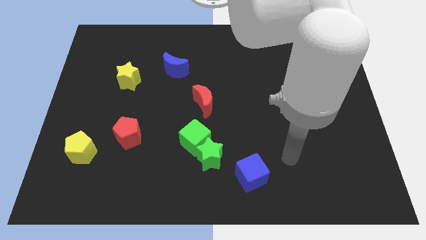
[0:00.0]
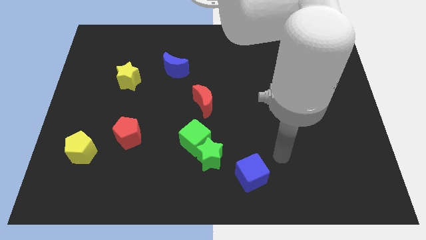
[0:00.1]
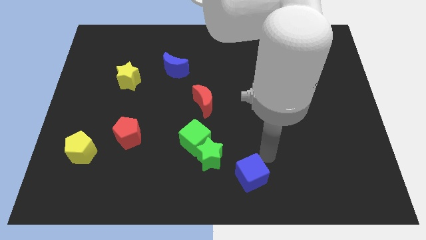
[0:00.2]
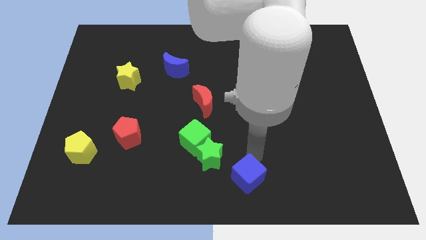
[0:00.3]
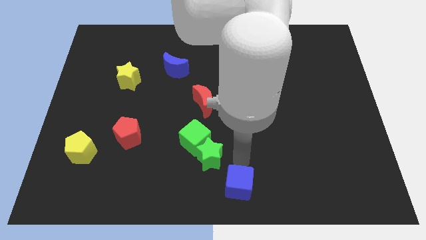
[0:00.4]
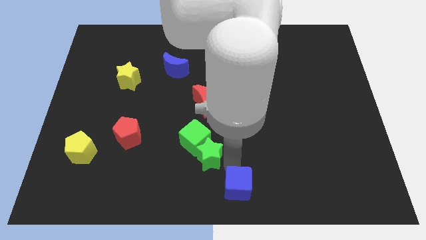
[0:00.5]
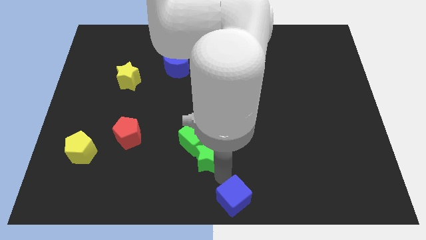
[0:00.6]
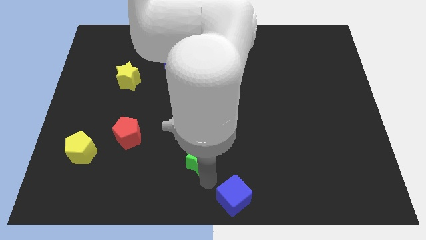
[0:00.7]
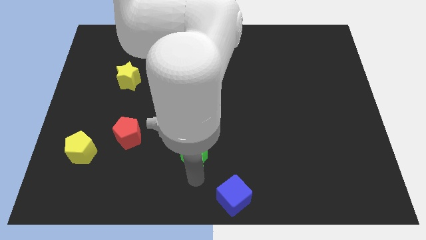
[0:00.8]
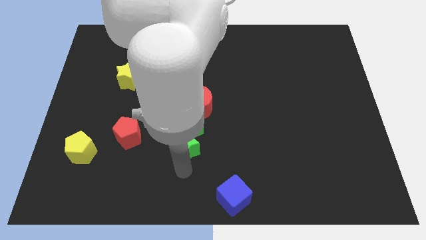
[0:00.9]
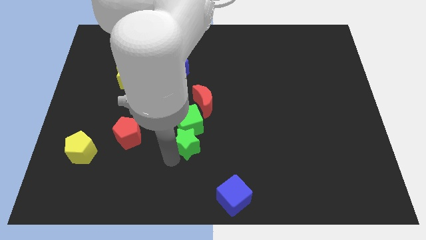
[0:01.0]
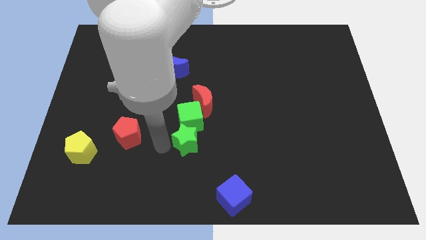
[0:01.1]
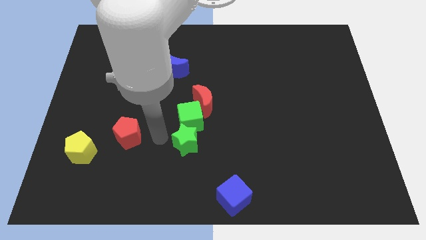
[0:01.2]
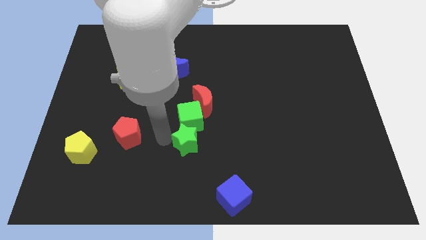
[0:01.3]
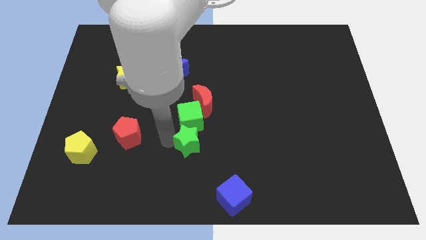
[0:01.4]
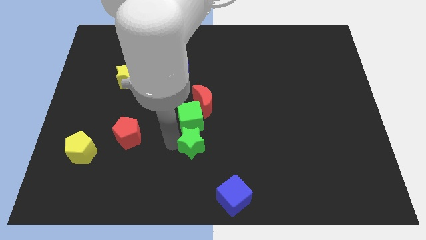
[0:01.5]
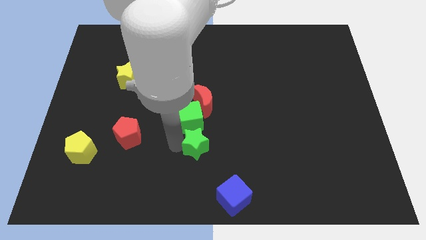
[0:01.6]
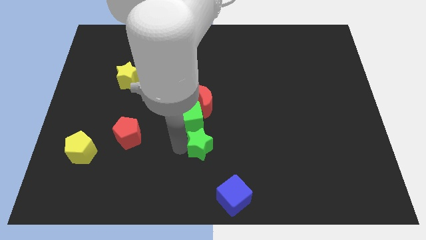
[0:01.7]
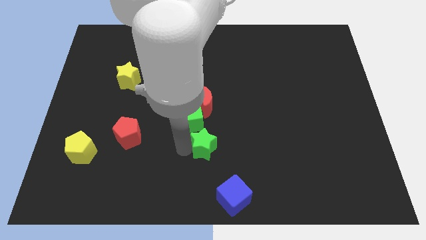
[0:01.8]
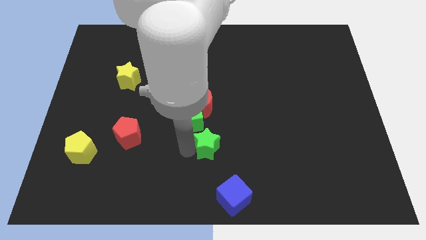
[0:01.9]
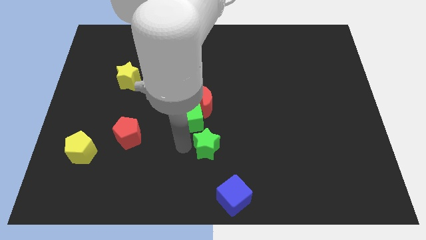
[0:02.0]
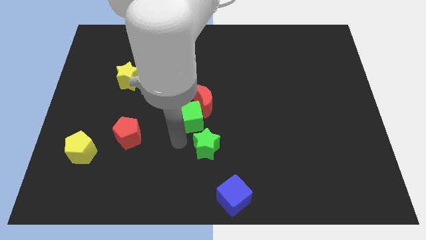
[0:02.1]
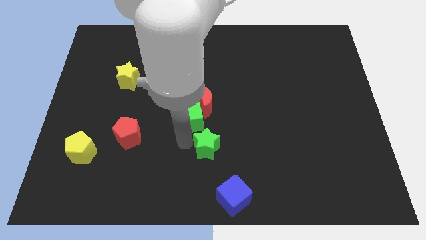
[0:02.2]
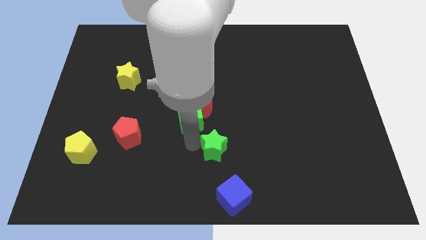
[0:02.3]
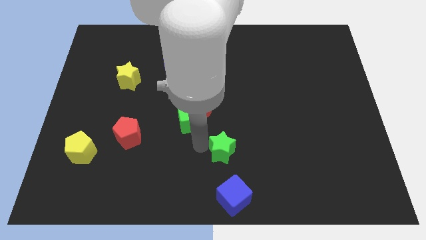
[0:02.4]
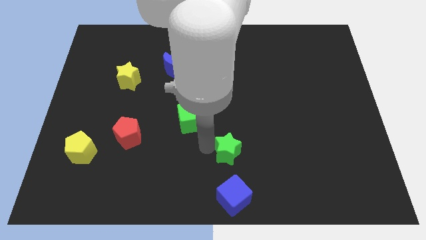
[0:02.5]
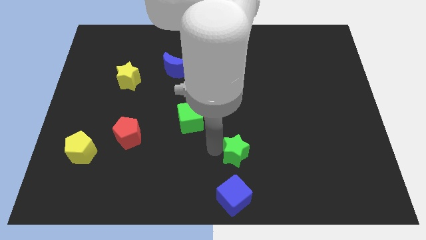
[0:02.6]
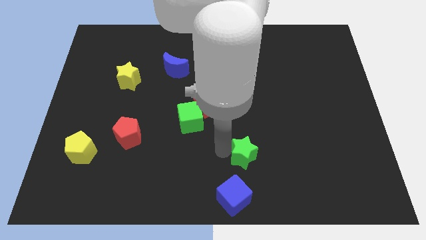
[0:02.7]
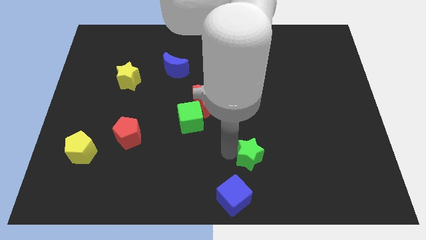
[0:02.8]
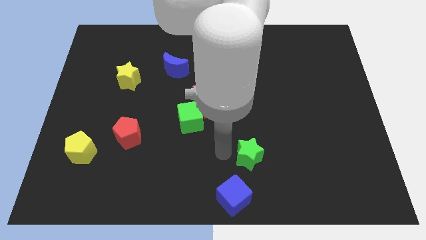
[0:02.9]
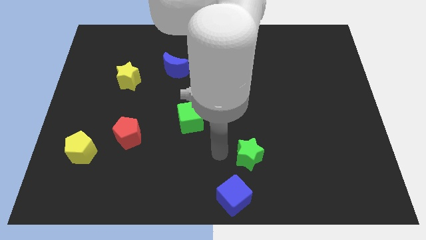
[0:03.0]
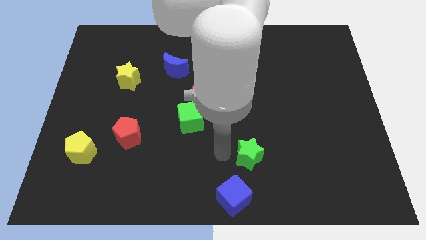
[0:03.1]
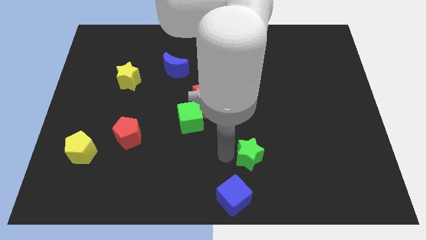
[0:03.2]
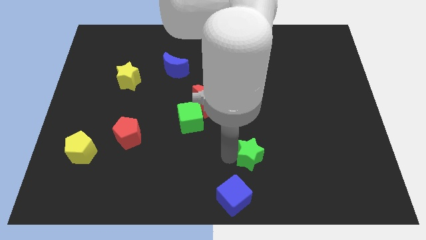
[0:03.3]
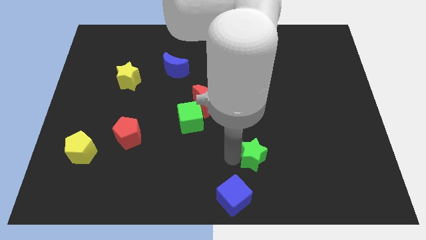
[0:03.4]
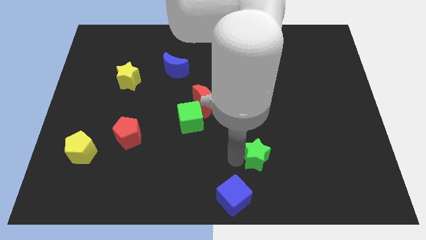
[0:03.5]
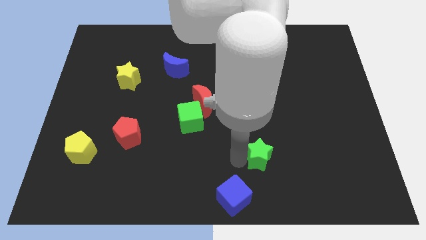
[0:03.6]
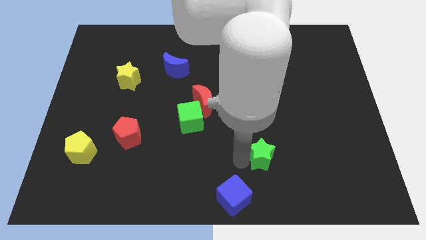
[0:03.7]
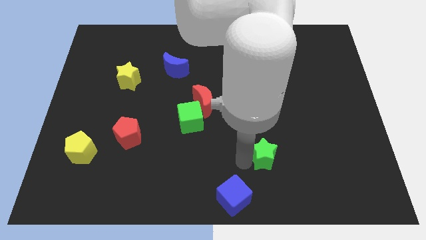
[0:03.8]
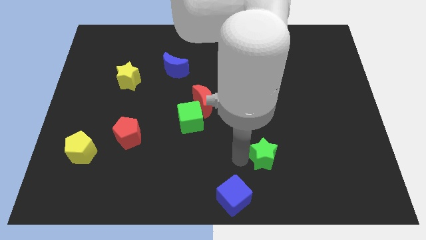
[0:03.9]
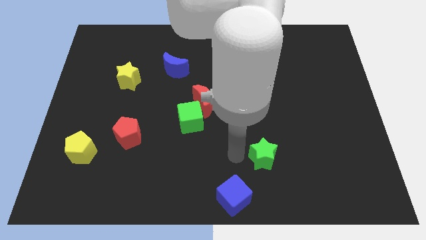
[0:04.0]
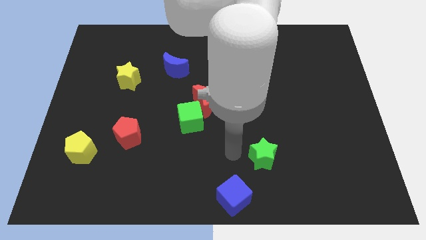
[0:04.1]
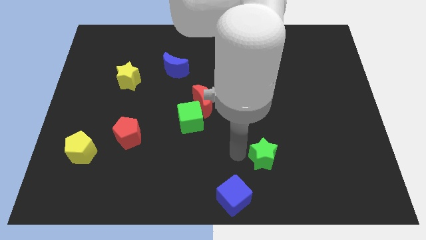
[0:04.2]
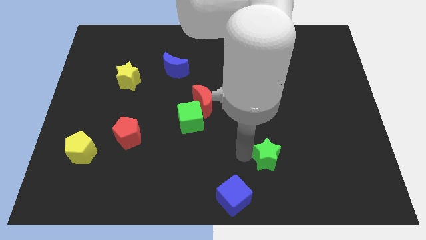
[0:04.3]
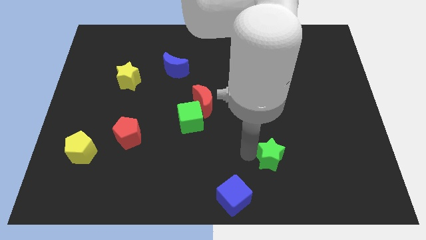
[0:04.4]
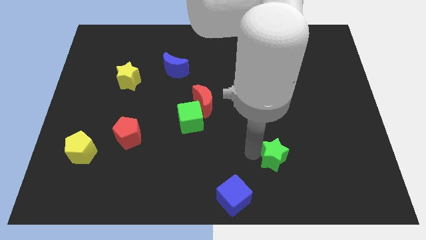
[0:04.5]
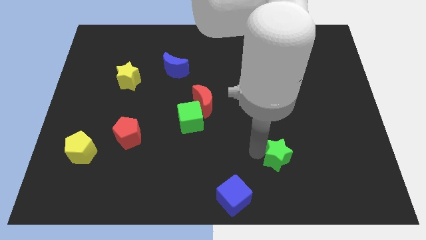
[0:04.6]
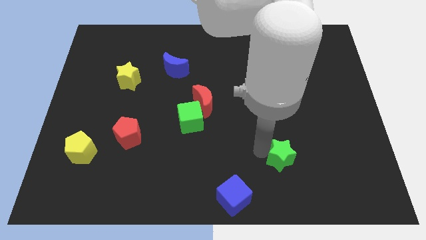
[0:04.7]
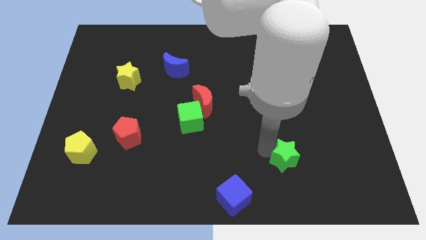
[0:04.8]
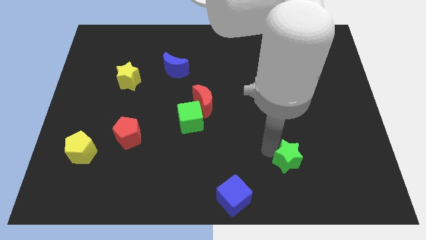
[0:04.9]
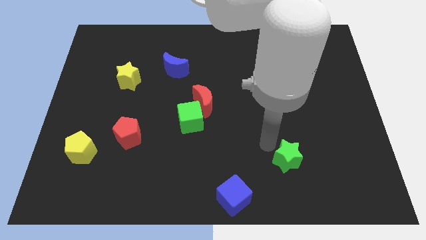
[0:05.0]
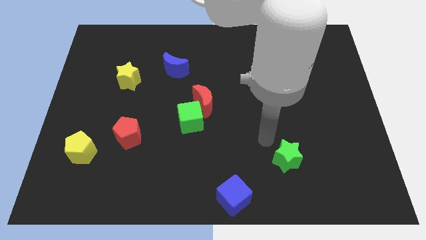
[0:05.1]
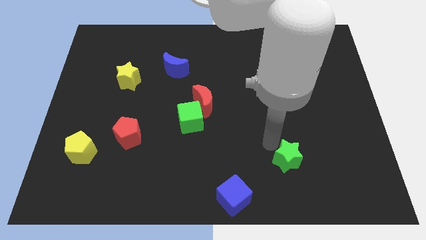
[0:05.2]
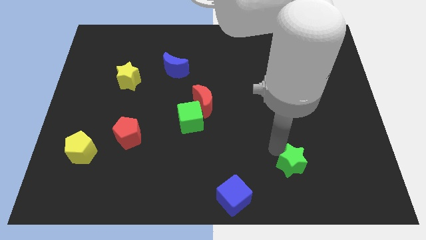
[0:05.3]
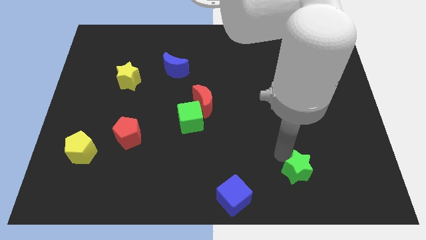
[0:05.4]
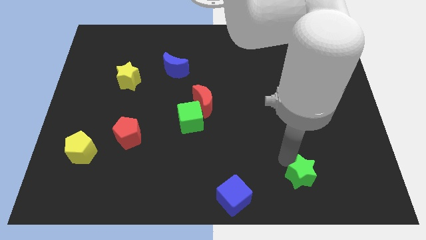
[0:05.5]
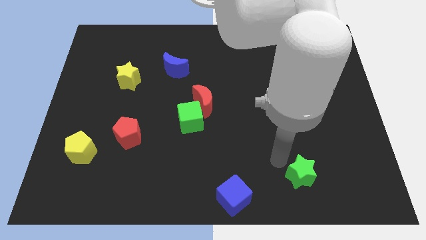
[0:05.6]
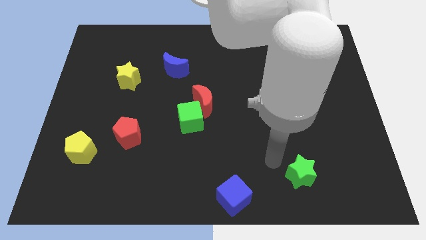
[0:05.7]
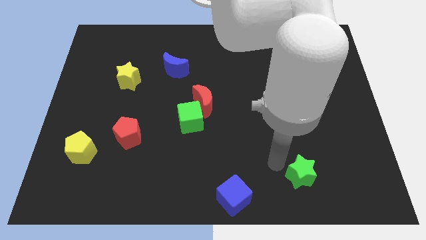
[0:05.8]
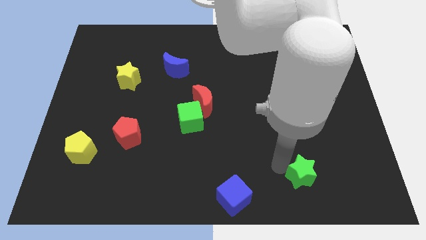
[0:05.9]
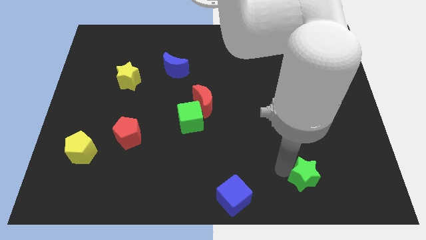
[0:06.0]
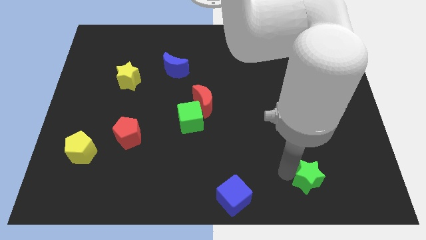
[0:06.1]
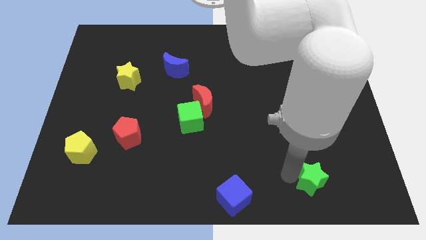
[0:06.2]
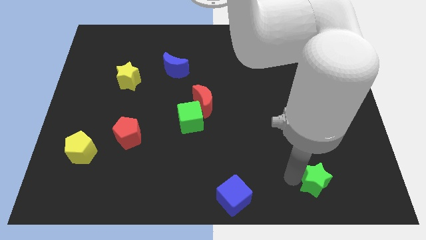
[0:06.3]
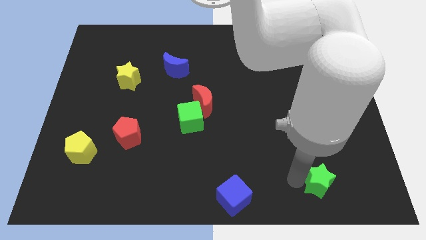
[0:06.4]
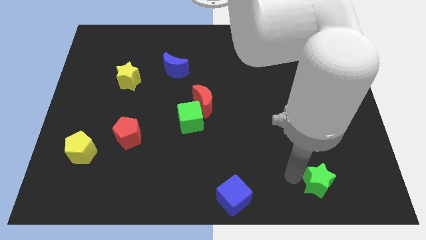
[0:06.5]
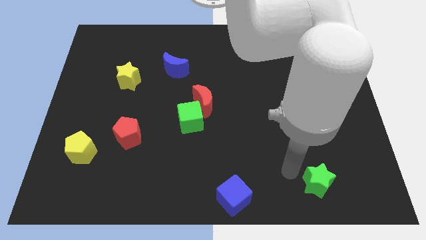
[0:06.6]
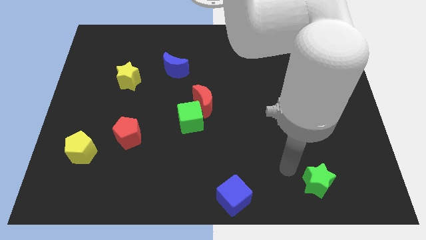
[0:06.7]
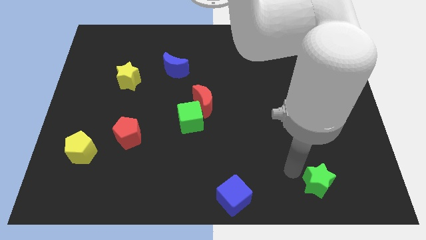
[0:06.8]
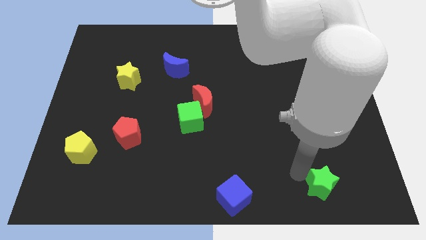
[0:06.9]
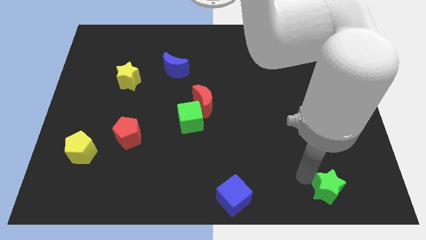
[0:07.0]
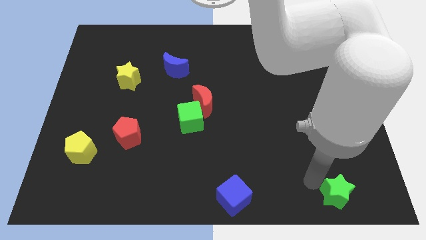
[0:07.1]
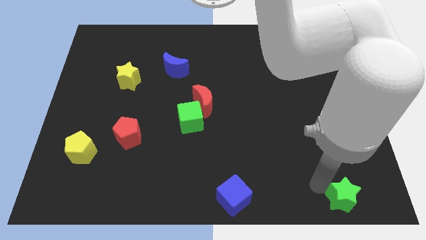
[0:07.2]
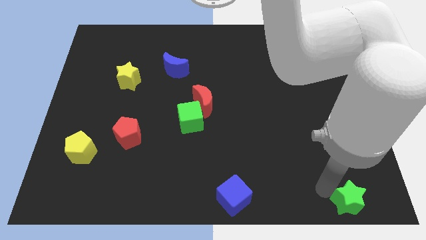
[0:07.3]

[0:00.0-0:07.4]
slide the green star to the bottom right corner

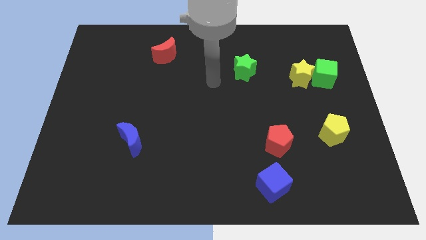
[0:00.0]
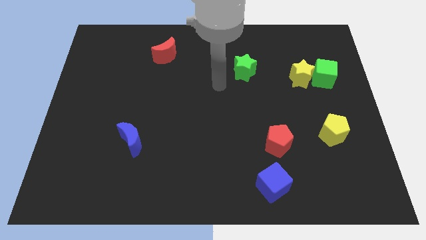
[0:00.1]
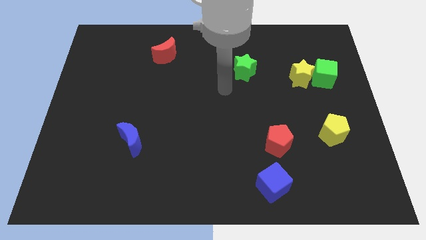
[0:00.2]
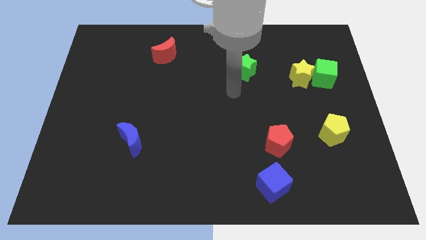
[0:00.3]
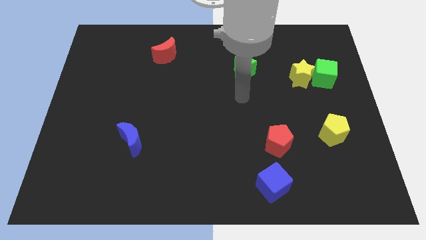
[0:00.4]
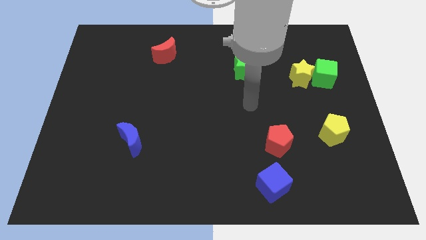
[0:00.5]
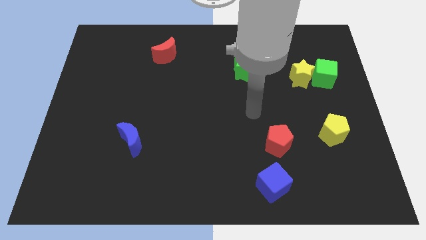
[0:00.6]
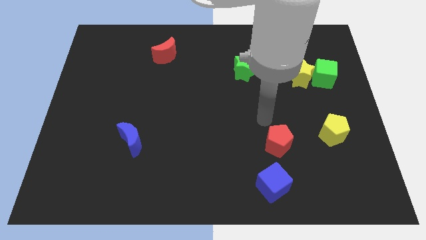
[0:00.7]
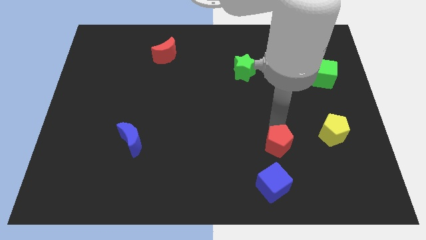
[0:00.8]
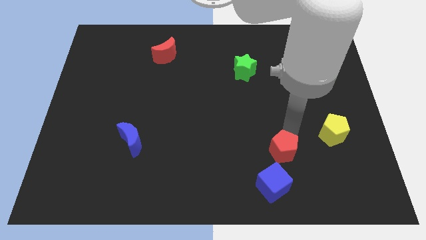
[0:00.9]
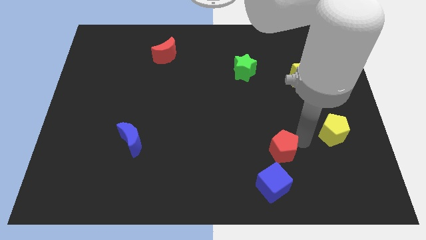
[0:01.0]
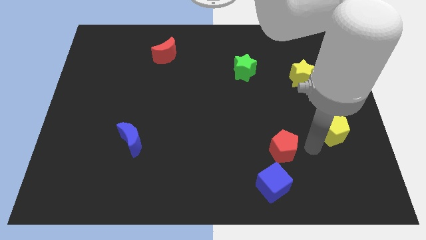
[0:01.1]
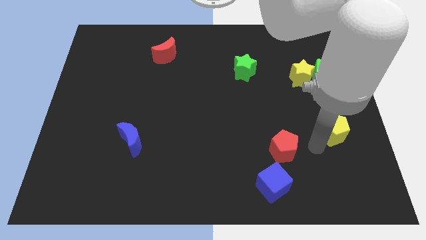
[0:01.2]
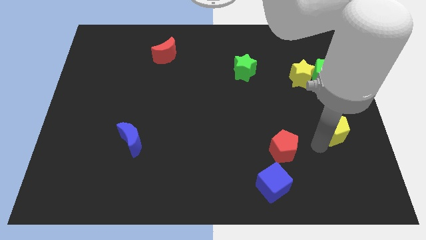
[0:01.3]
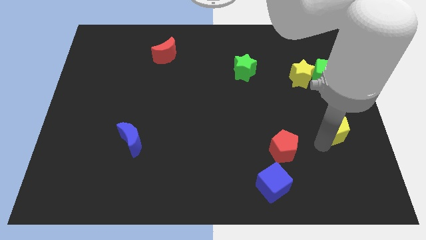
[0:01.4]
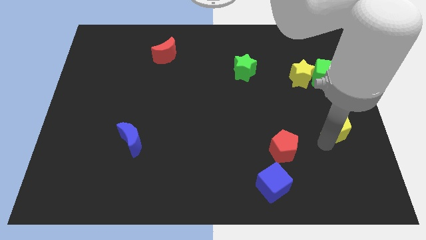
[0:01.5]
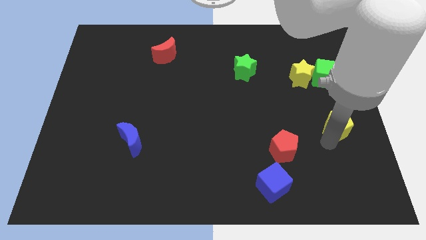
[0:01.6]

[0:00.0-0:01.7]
slide the yellow pentagon to the center right
